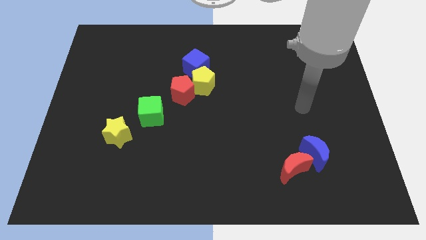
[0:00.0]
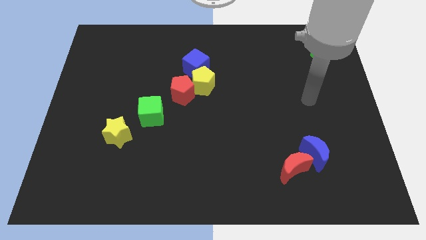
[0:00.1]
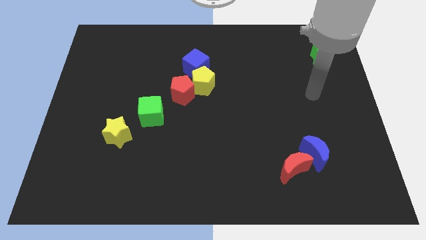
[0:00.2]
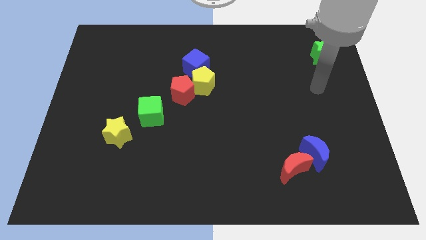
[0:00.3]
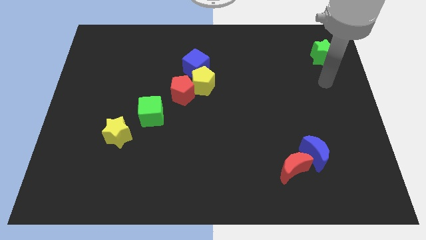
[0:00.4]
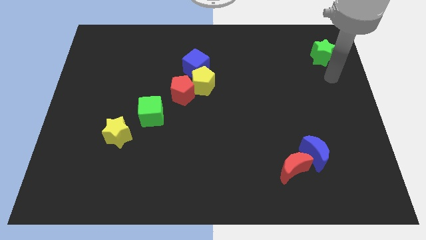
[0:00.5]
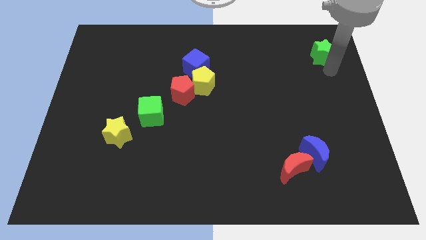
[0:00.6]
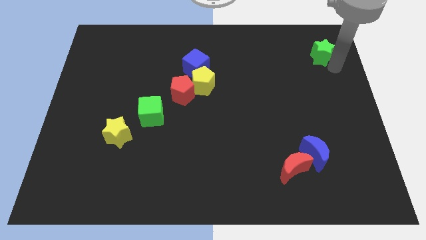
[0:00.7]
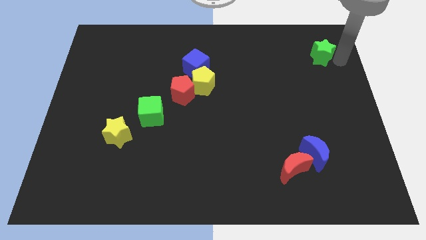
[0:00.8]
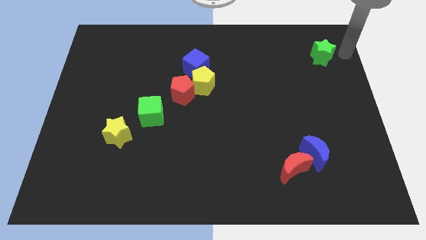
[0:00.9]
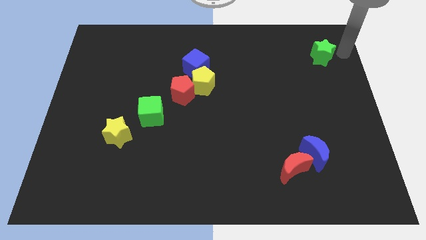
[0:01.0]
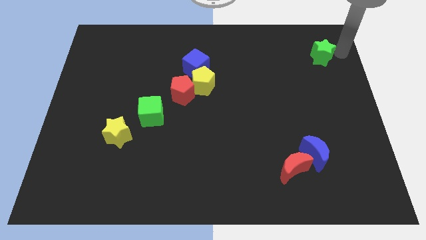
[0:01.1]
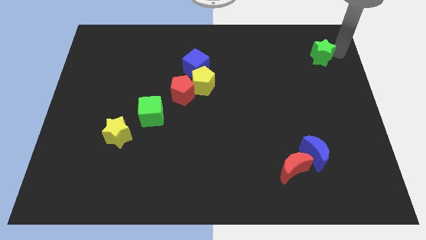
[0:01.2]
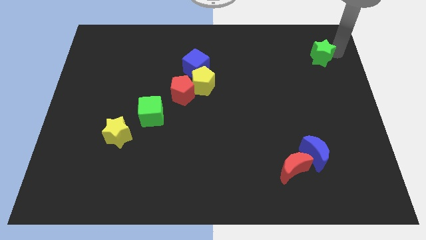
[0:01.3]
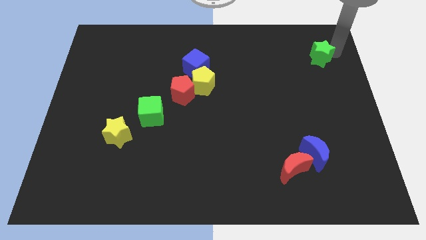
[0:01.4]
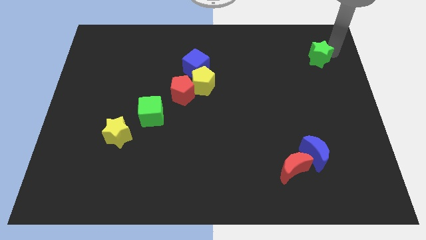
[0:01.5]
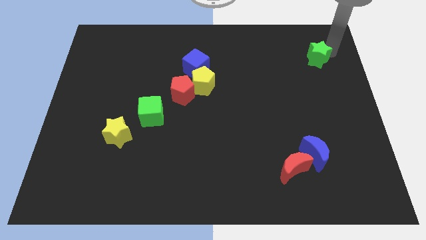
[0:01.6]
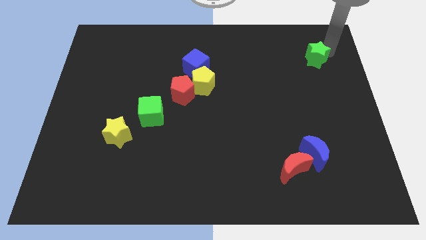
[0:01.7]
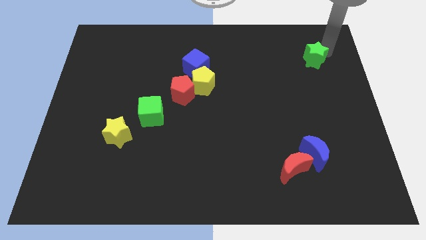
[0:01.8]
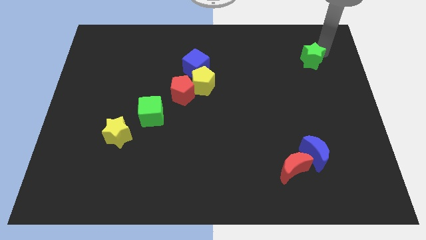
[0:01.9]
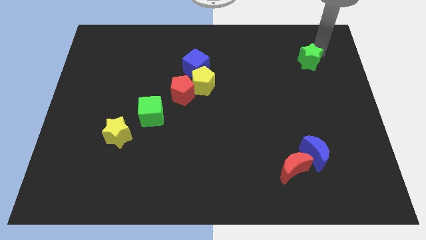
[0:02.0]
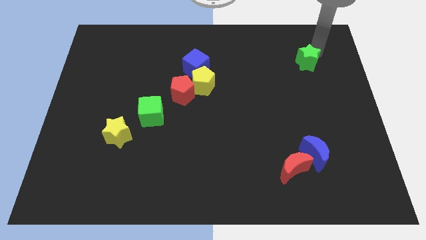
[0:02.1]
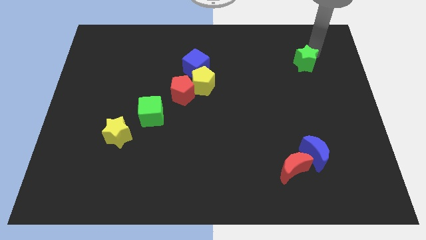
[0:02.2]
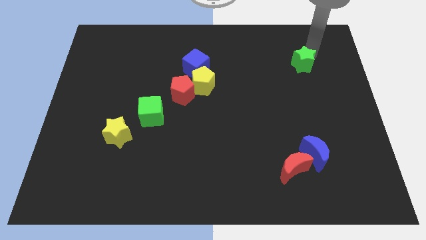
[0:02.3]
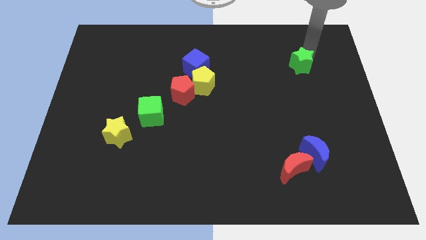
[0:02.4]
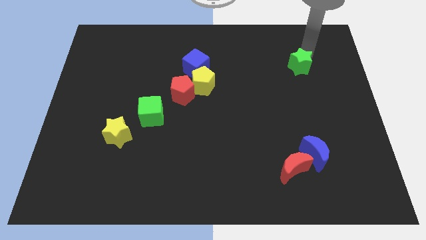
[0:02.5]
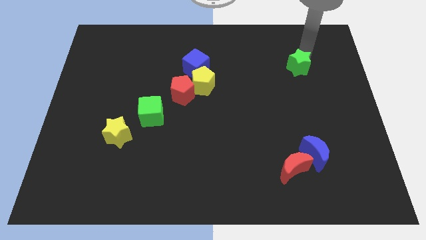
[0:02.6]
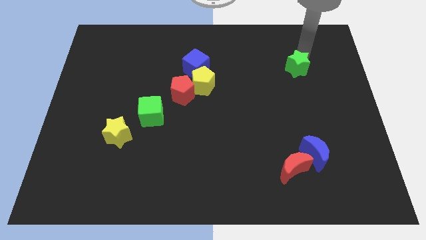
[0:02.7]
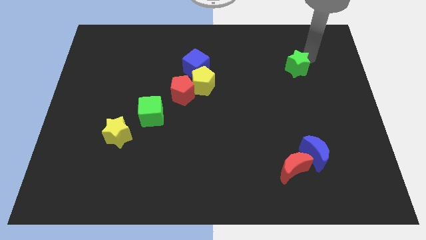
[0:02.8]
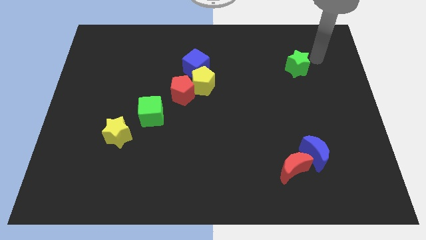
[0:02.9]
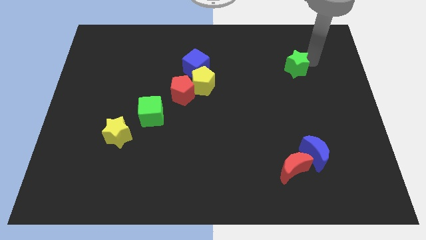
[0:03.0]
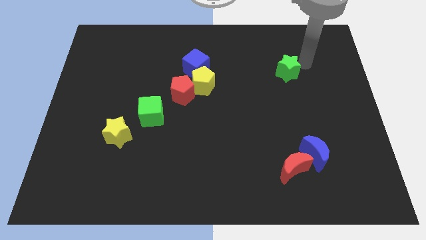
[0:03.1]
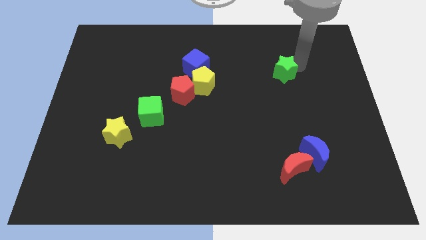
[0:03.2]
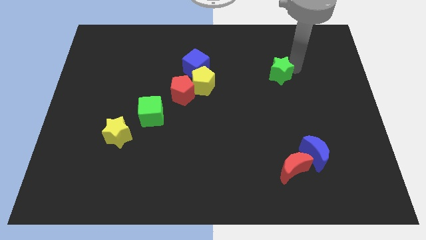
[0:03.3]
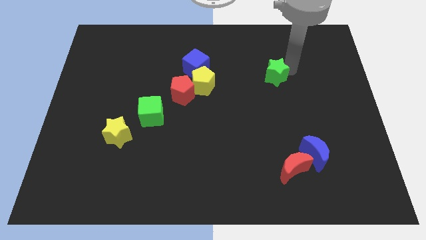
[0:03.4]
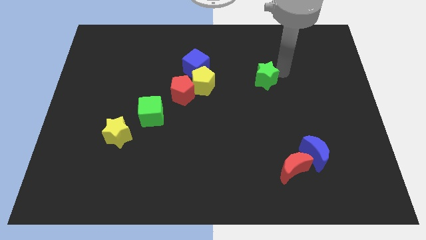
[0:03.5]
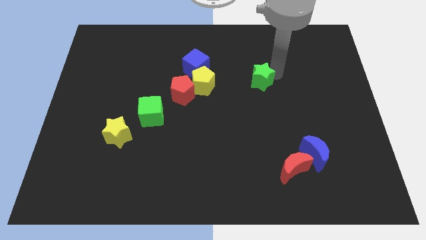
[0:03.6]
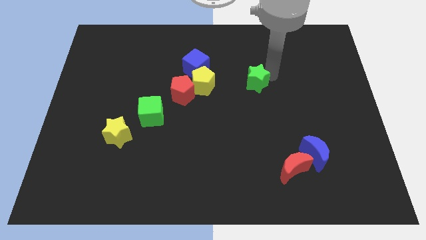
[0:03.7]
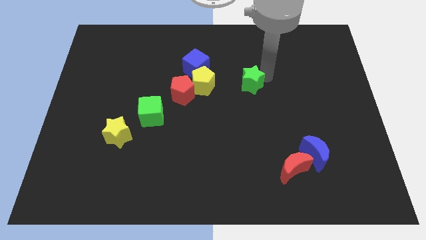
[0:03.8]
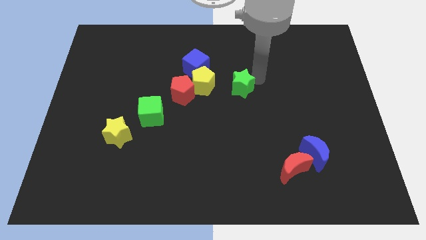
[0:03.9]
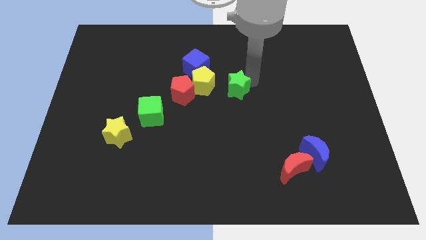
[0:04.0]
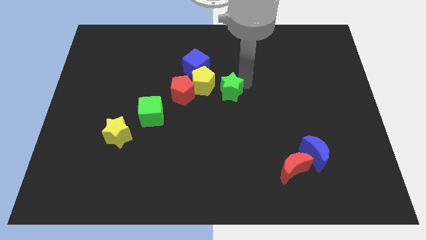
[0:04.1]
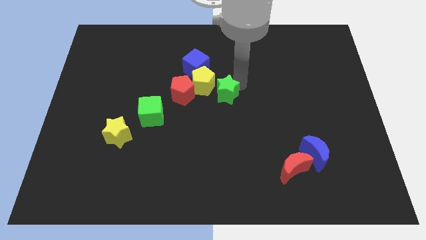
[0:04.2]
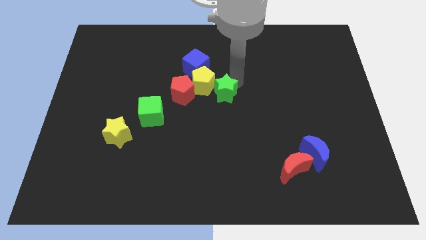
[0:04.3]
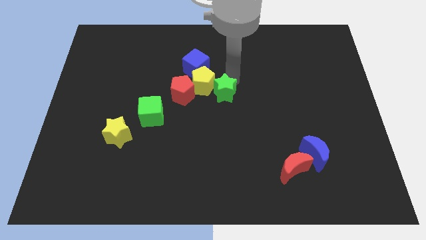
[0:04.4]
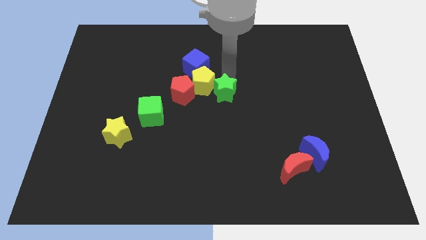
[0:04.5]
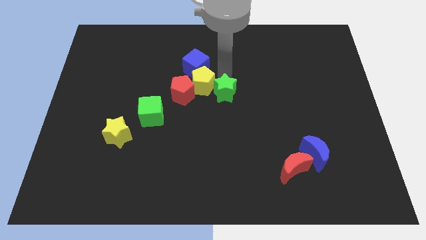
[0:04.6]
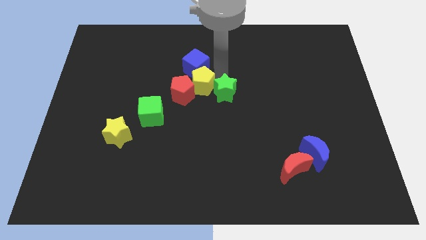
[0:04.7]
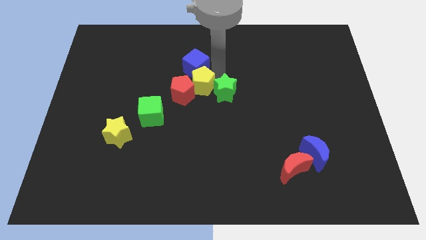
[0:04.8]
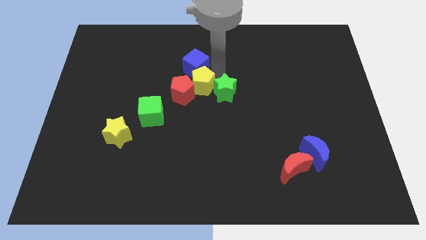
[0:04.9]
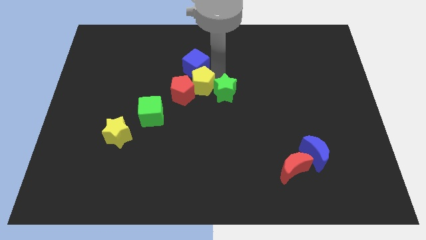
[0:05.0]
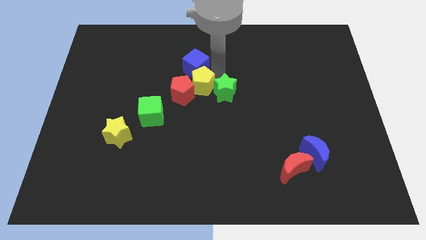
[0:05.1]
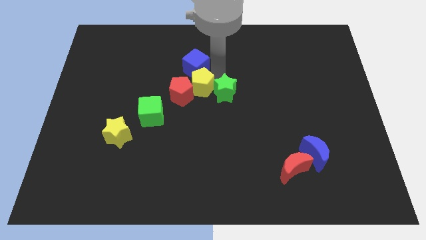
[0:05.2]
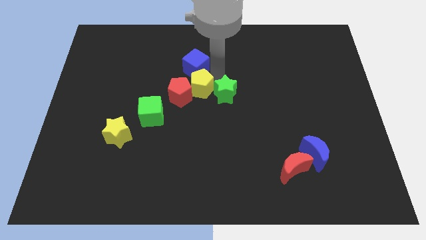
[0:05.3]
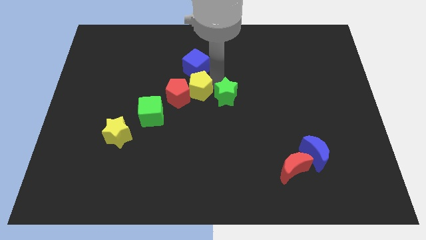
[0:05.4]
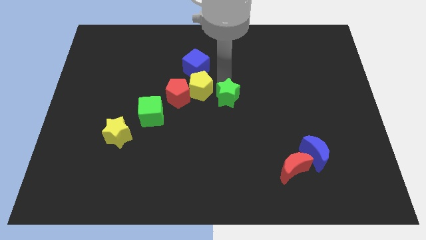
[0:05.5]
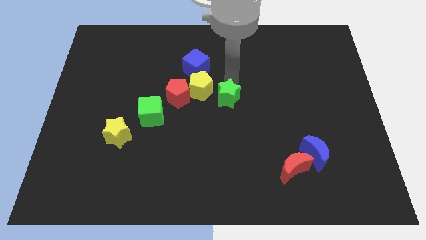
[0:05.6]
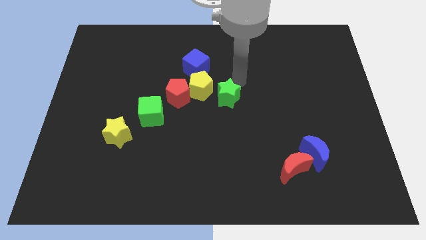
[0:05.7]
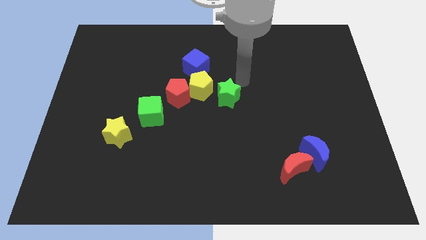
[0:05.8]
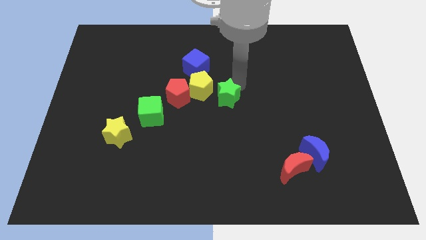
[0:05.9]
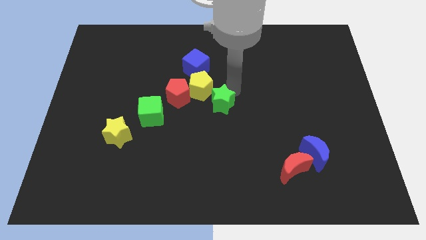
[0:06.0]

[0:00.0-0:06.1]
put the green star to the bottom side of the yellow pentagon
